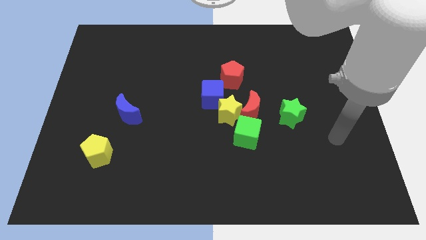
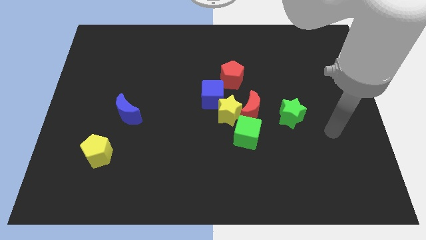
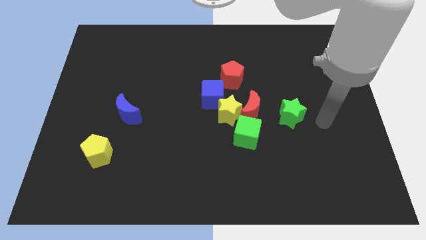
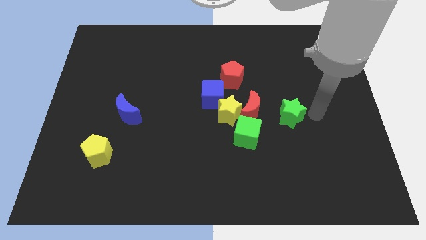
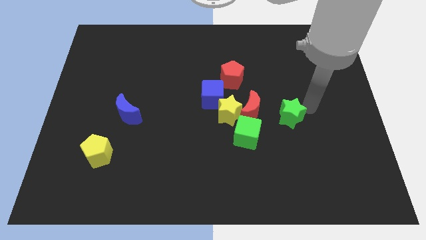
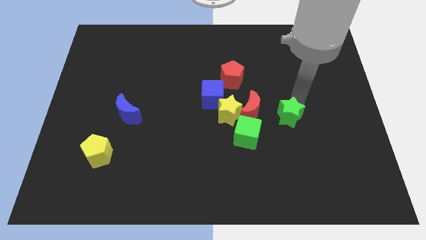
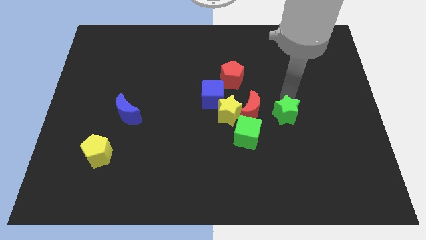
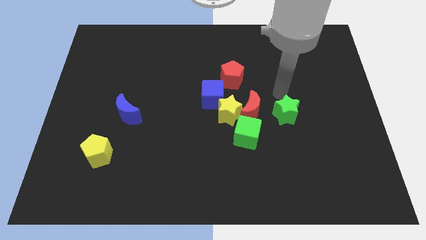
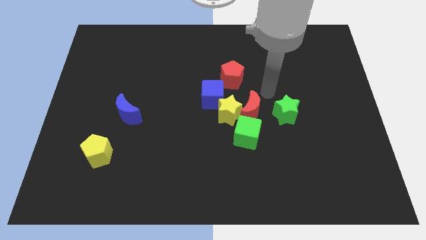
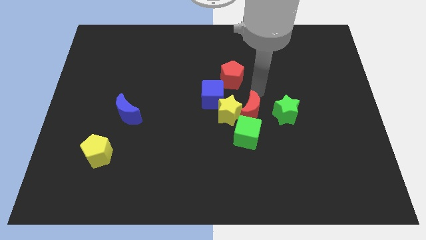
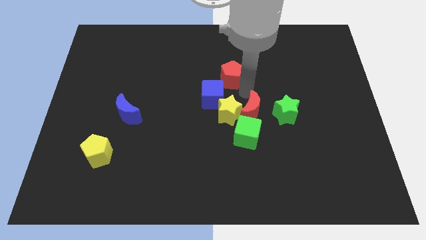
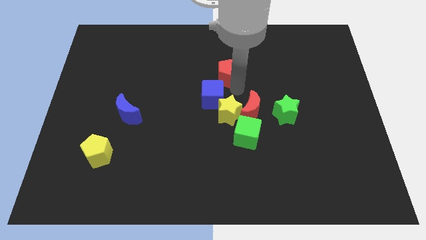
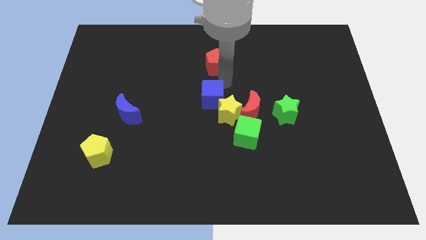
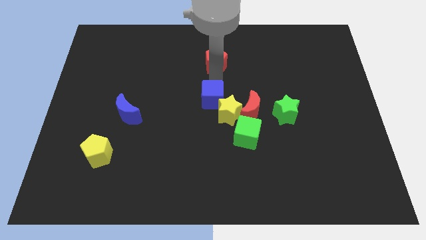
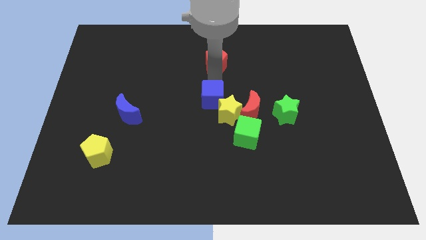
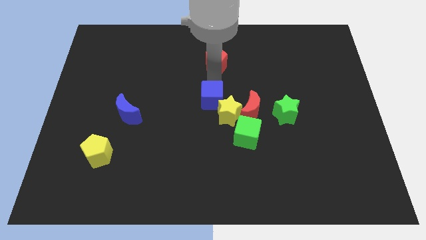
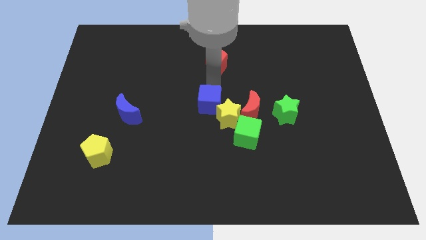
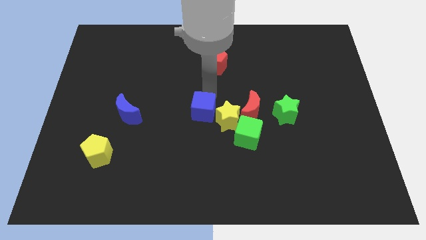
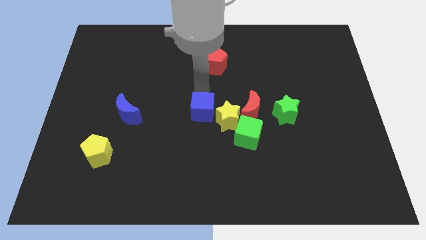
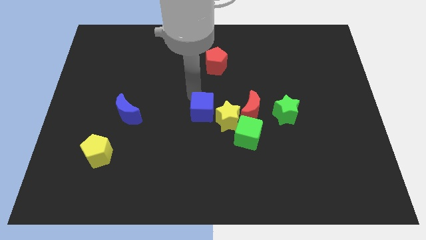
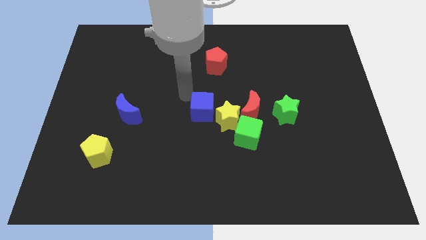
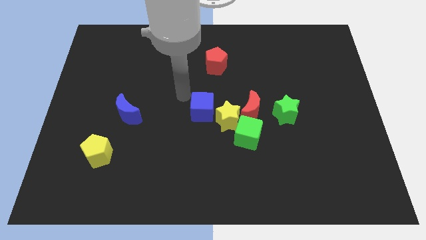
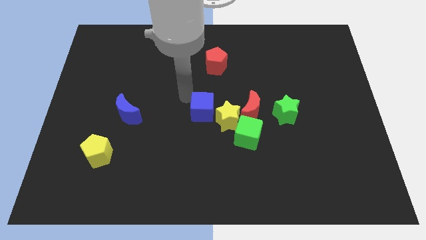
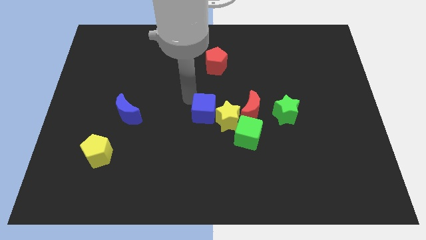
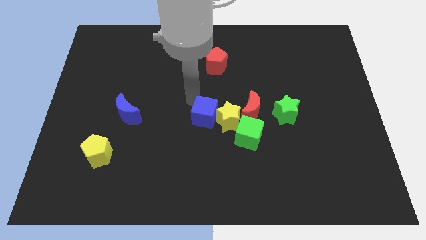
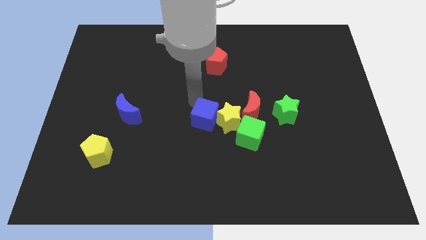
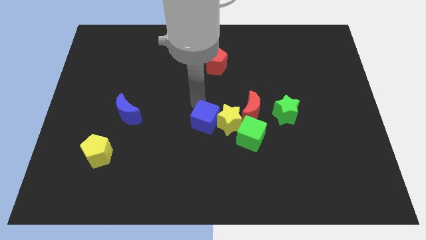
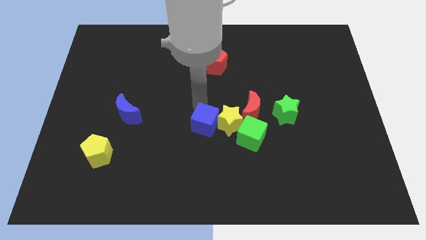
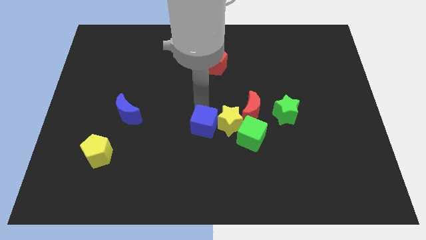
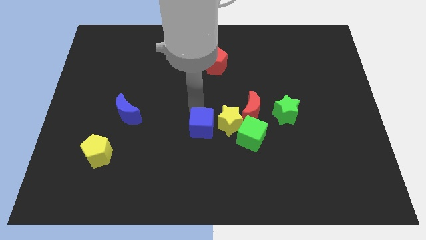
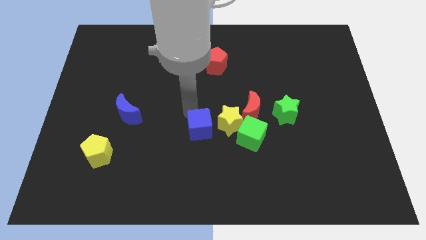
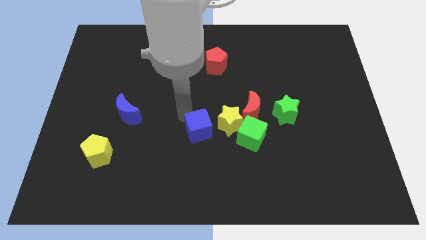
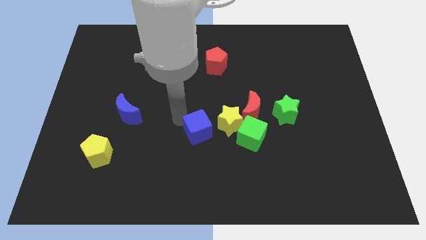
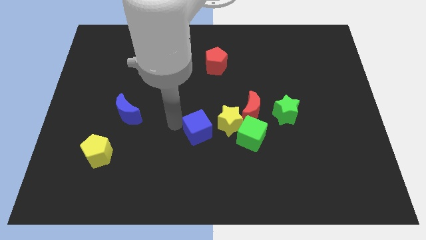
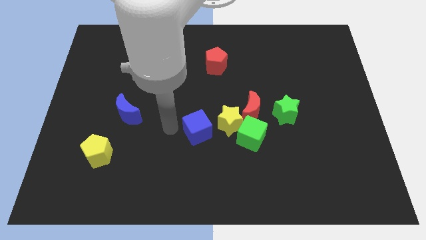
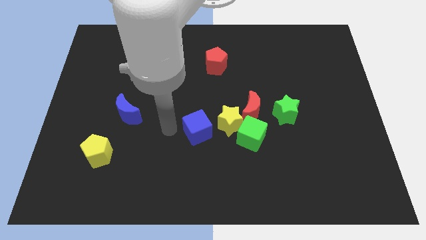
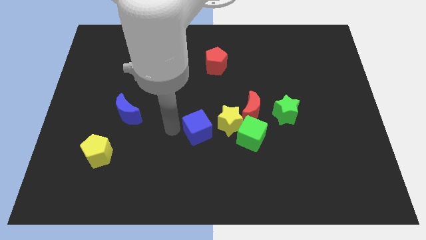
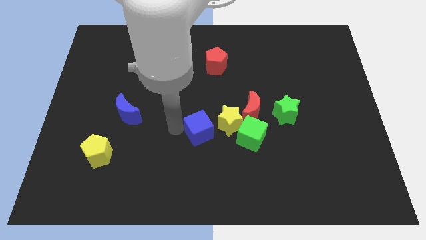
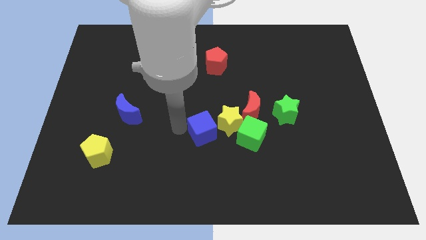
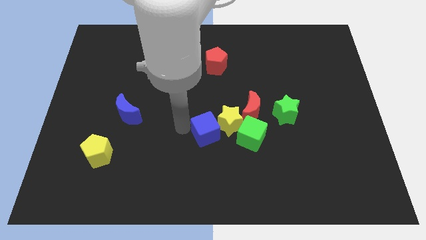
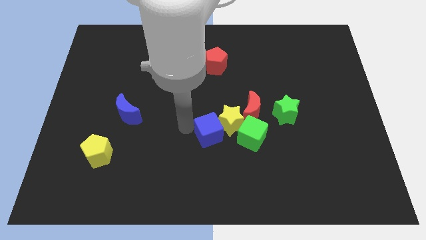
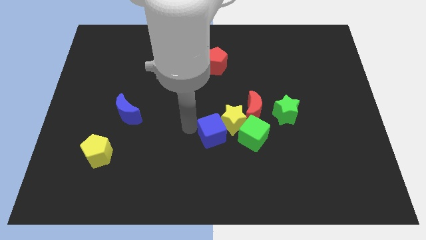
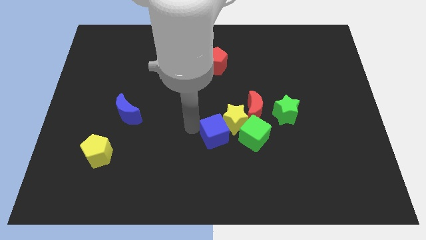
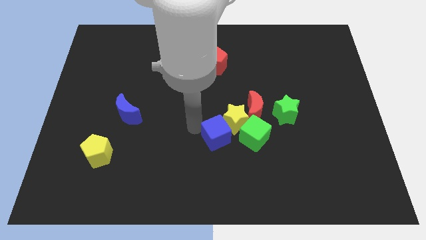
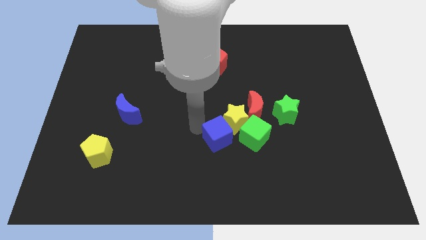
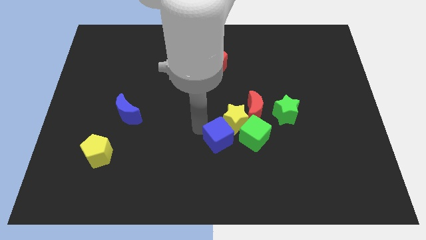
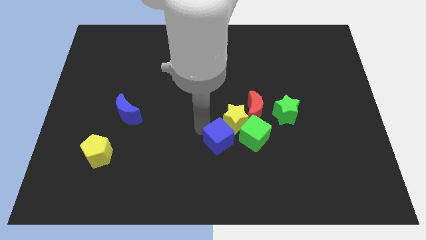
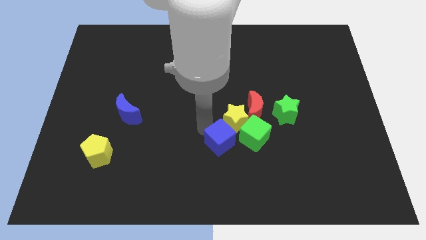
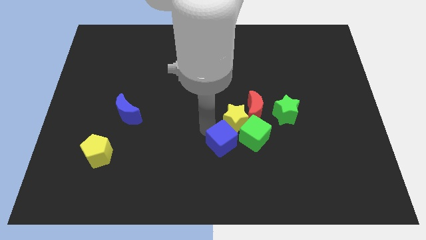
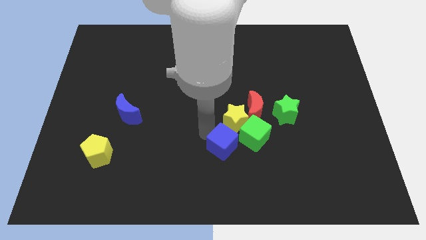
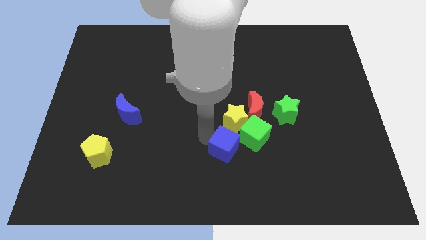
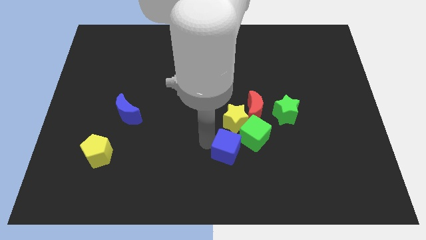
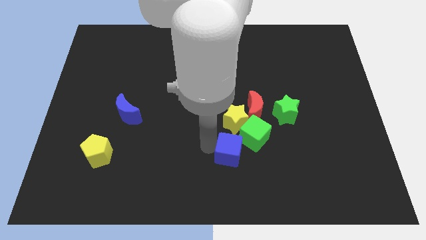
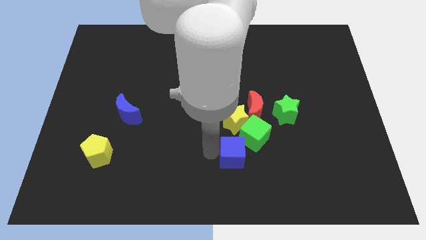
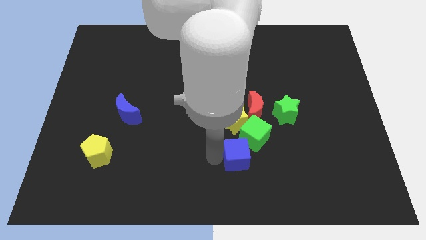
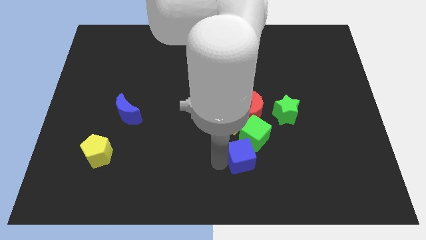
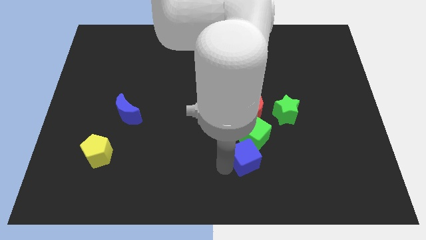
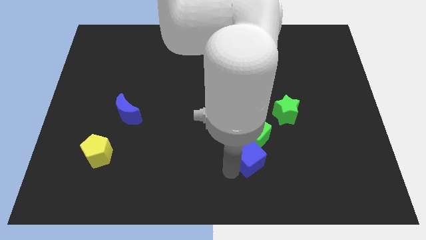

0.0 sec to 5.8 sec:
move the blue cube towards the green cube
